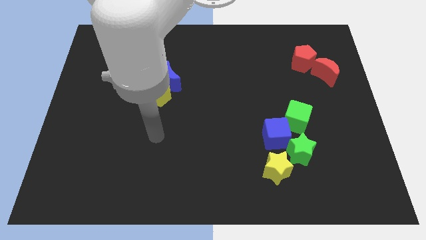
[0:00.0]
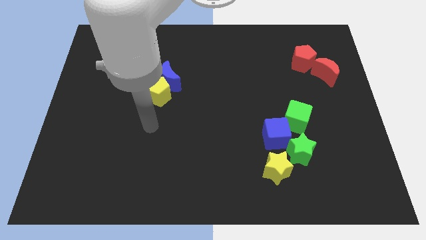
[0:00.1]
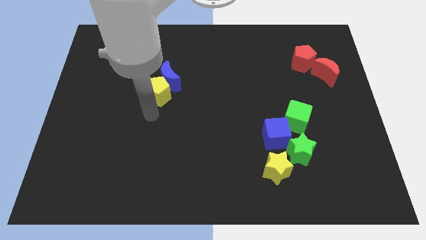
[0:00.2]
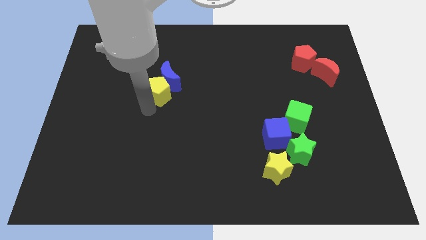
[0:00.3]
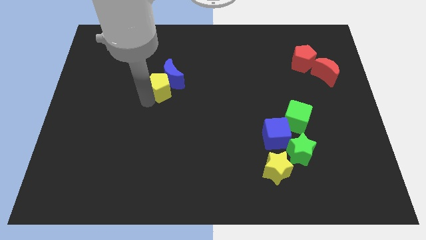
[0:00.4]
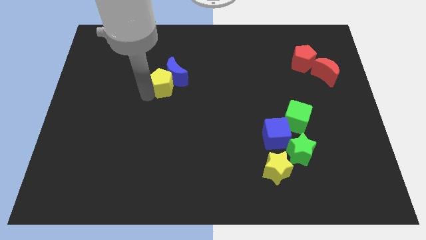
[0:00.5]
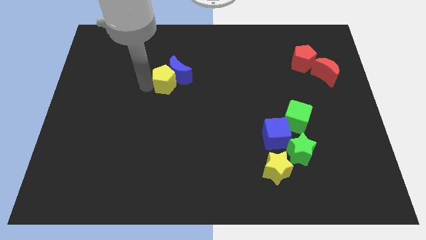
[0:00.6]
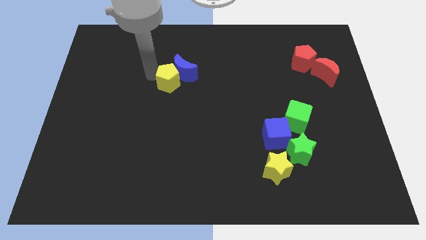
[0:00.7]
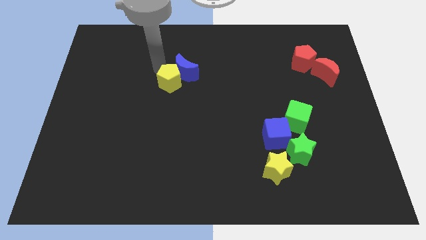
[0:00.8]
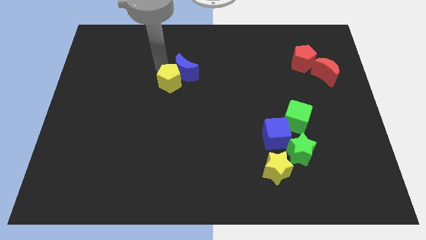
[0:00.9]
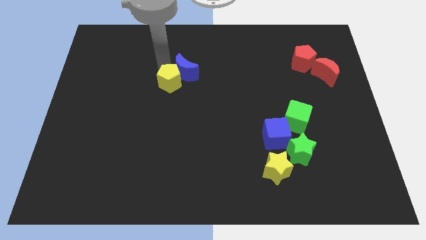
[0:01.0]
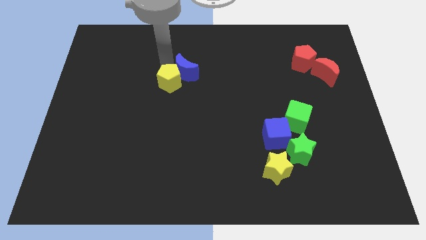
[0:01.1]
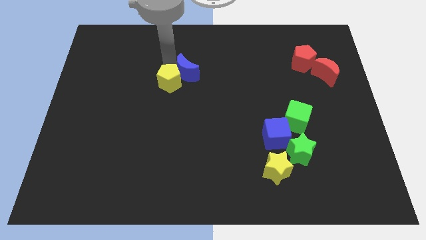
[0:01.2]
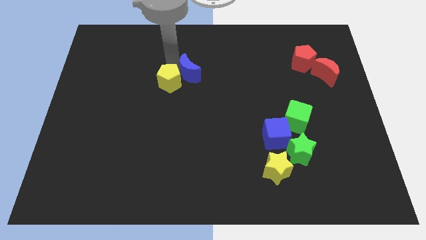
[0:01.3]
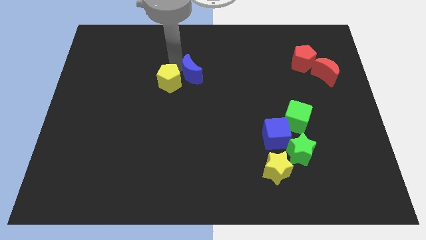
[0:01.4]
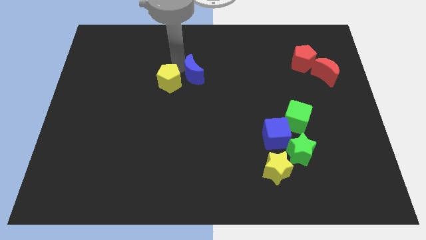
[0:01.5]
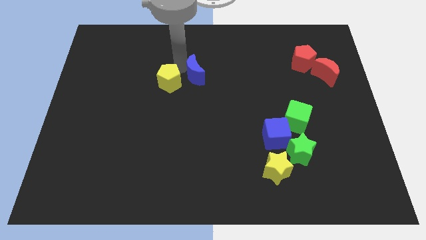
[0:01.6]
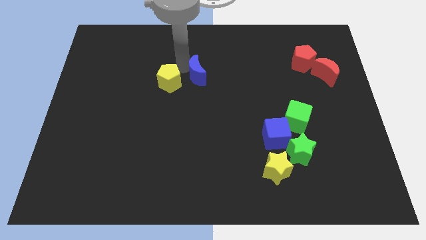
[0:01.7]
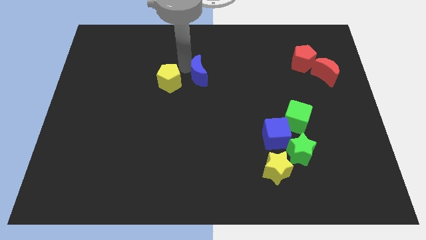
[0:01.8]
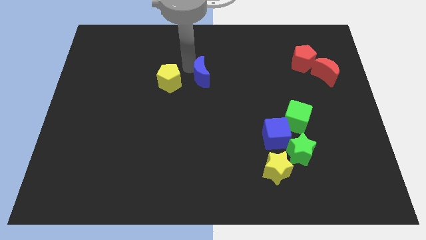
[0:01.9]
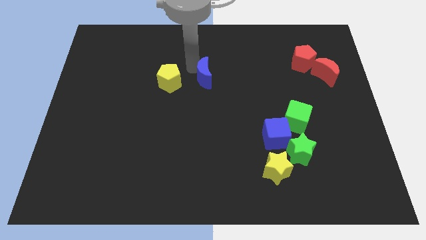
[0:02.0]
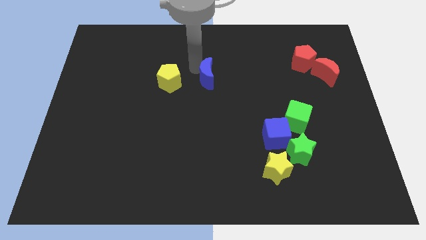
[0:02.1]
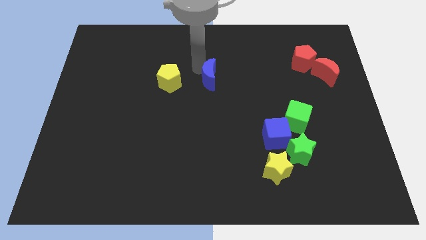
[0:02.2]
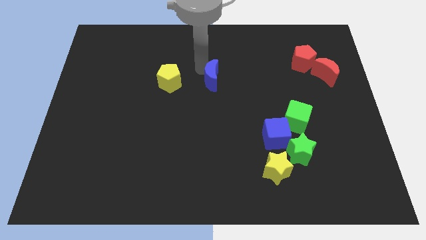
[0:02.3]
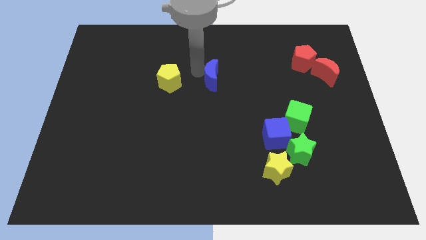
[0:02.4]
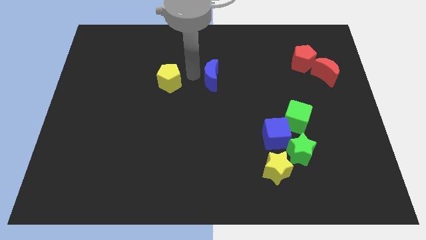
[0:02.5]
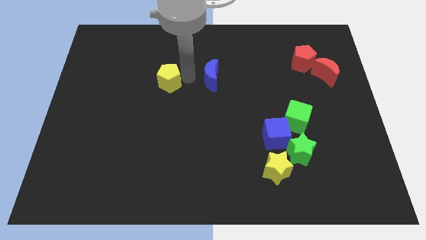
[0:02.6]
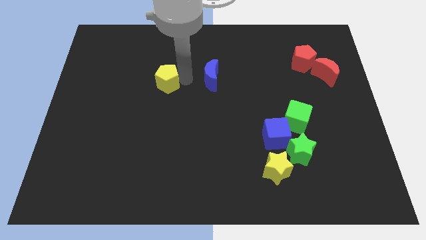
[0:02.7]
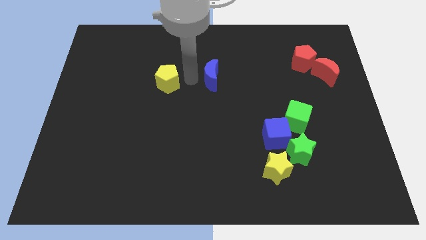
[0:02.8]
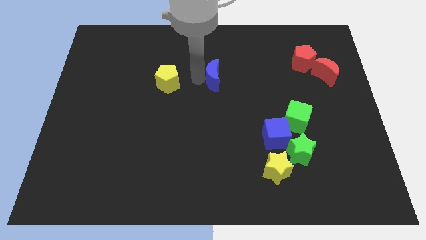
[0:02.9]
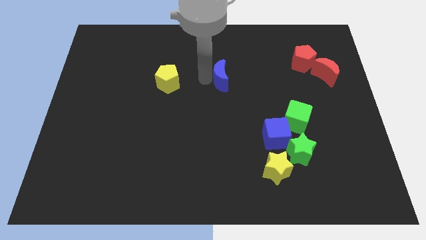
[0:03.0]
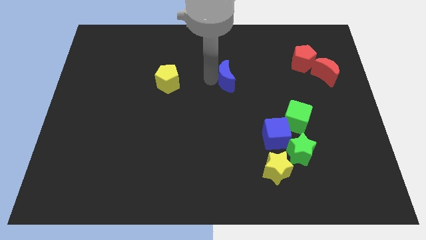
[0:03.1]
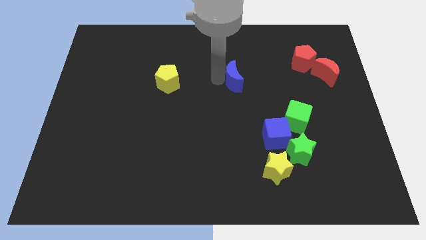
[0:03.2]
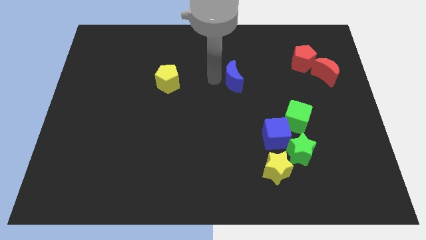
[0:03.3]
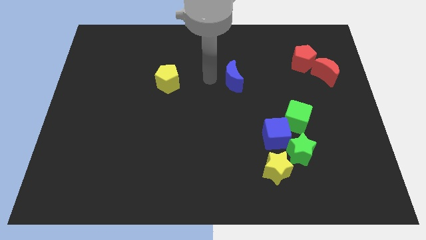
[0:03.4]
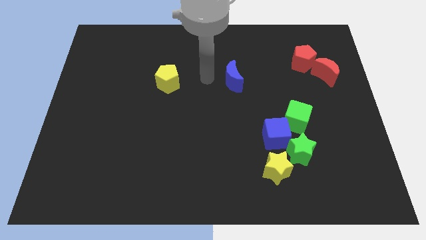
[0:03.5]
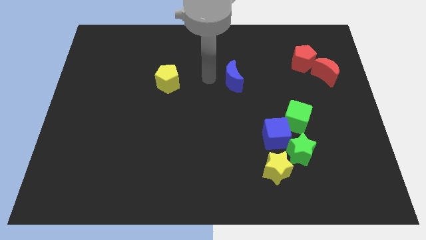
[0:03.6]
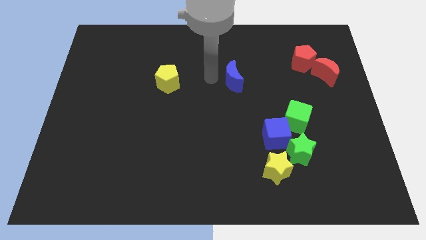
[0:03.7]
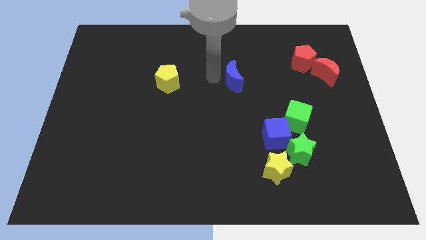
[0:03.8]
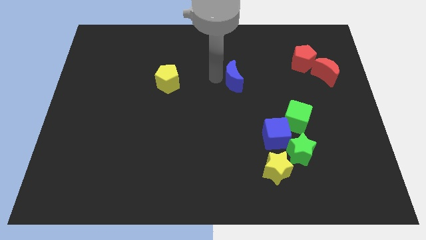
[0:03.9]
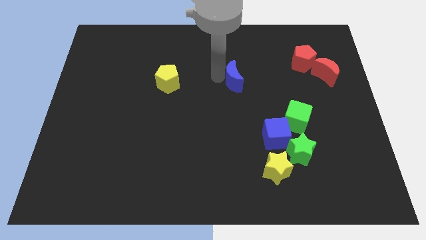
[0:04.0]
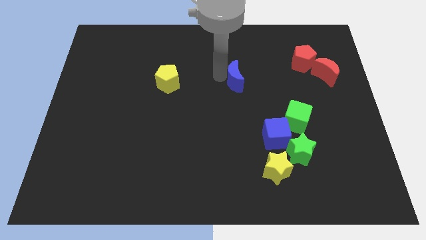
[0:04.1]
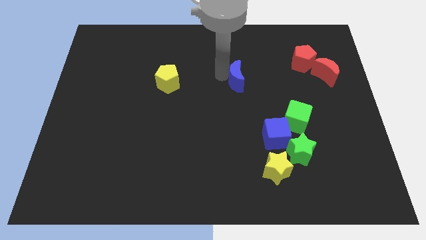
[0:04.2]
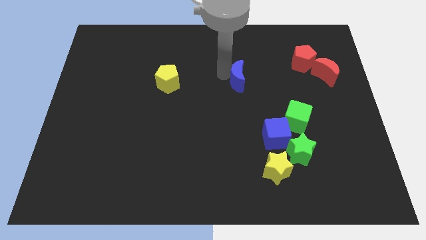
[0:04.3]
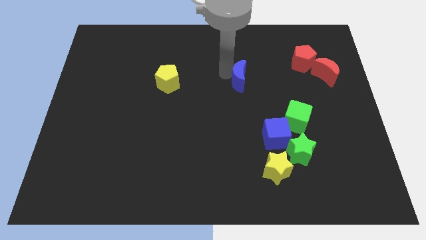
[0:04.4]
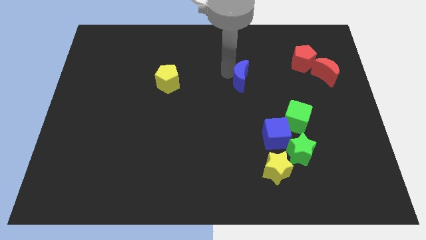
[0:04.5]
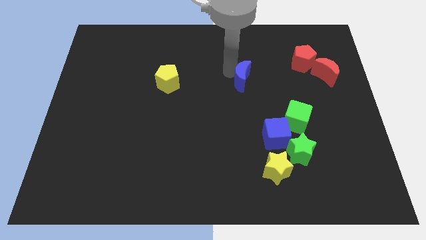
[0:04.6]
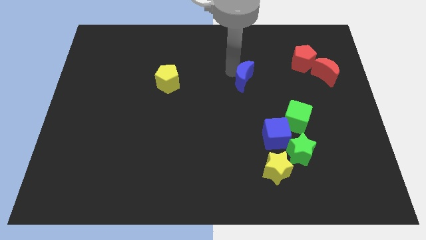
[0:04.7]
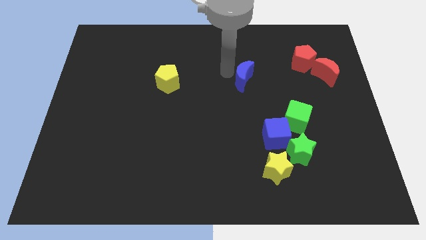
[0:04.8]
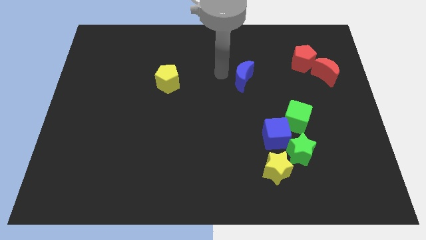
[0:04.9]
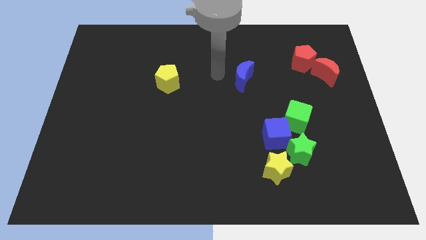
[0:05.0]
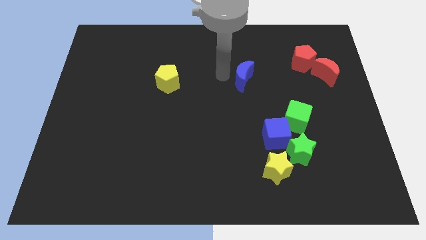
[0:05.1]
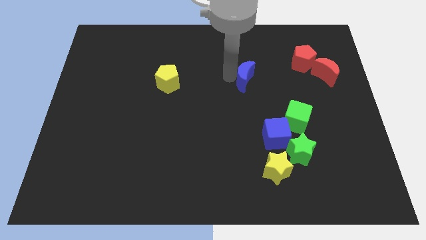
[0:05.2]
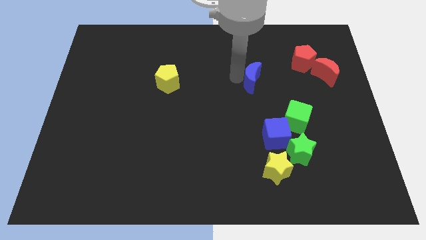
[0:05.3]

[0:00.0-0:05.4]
slide the blue moon to the right

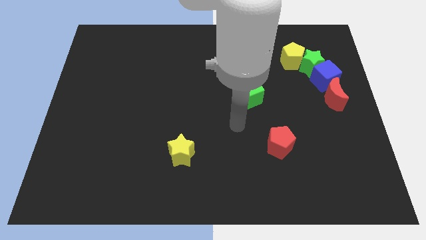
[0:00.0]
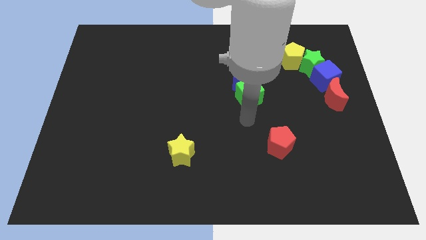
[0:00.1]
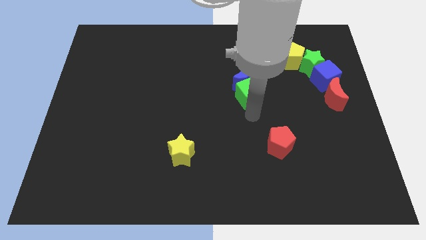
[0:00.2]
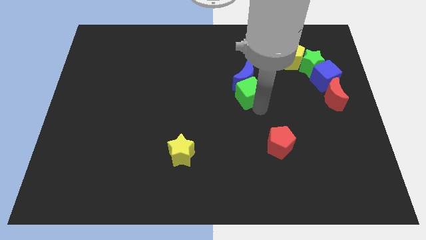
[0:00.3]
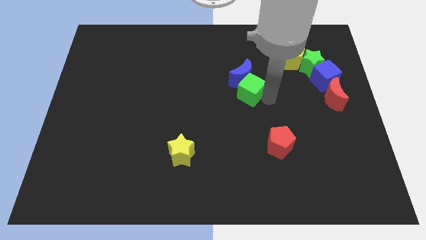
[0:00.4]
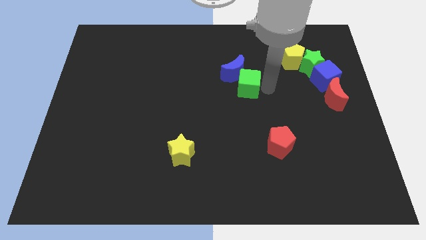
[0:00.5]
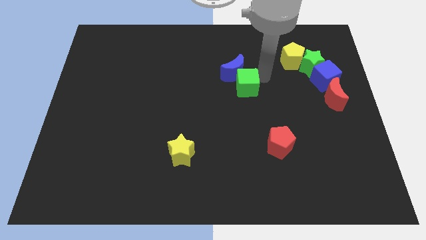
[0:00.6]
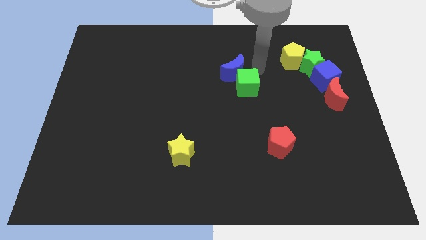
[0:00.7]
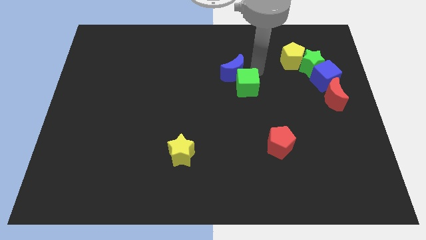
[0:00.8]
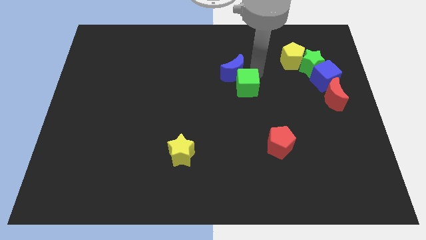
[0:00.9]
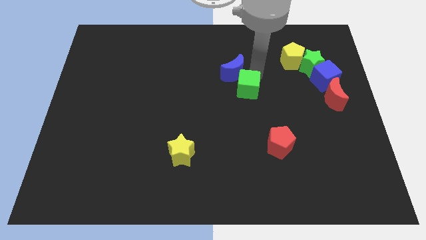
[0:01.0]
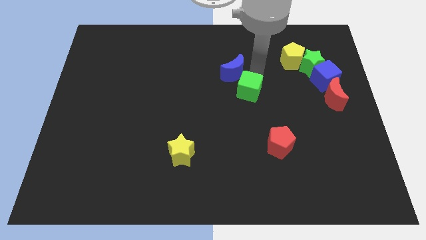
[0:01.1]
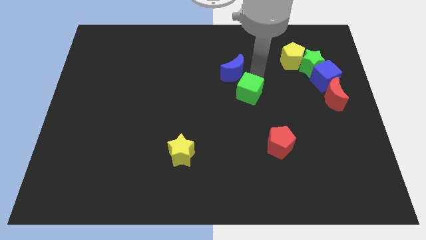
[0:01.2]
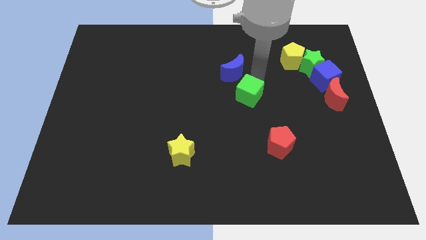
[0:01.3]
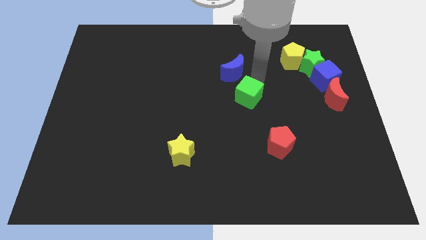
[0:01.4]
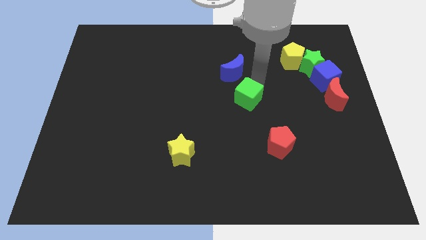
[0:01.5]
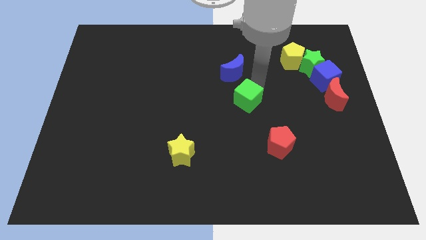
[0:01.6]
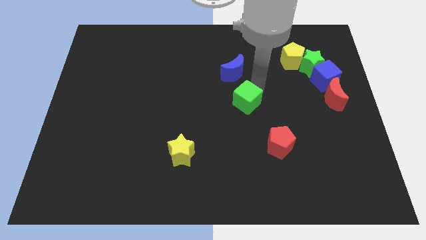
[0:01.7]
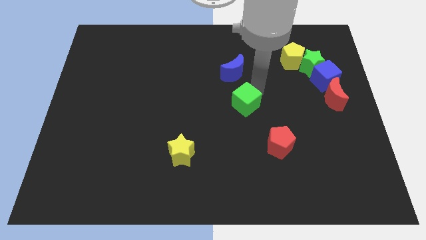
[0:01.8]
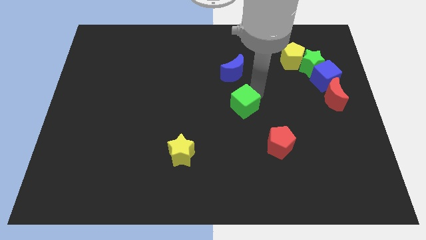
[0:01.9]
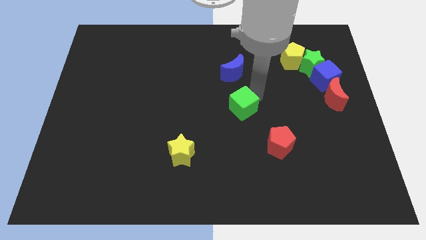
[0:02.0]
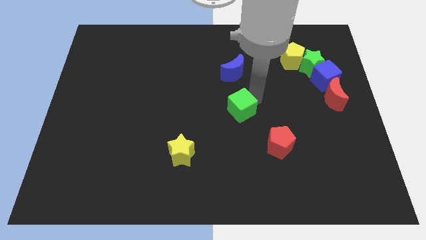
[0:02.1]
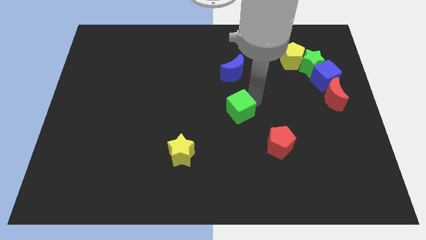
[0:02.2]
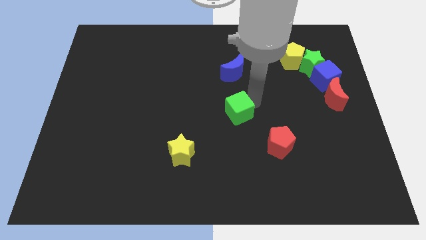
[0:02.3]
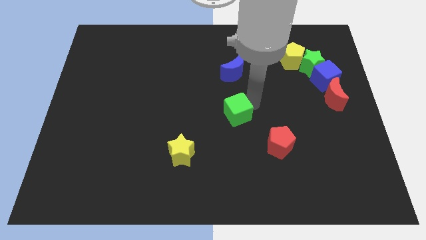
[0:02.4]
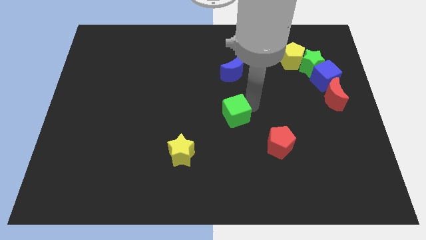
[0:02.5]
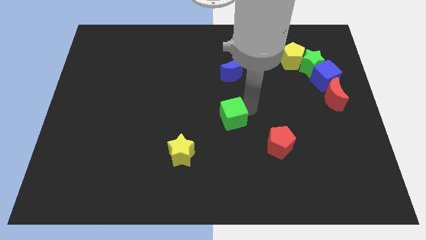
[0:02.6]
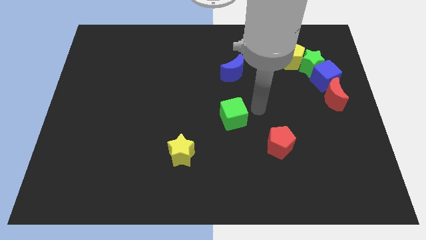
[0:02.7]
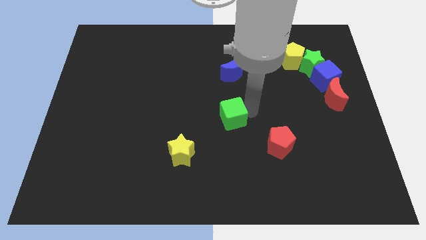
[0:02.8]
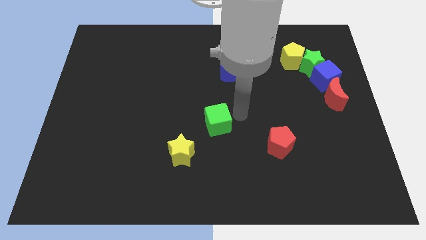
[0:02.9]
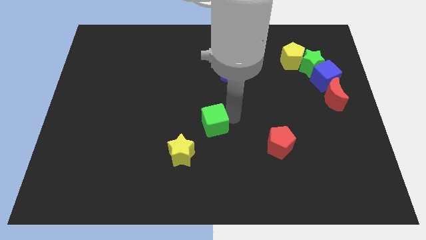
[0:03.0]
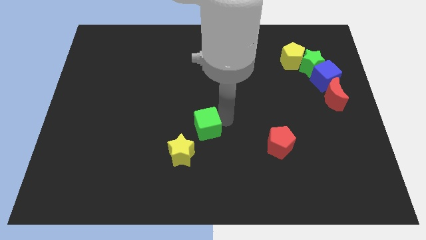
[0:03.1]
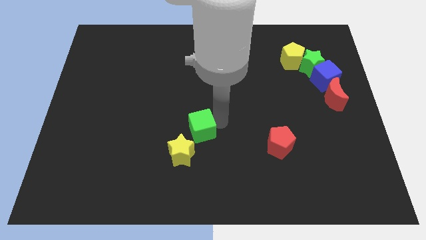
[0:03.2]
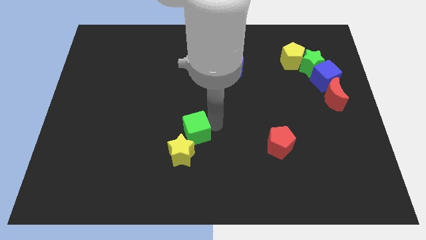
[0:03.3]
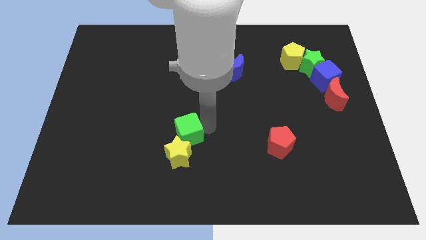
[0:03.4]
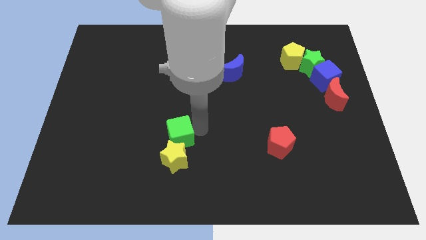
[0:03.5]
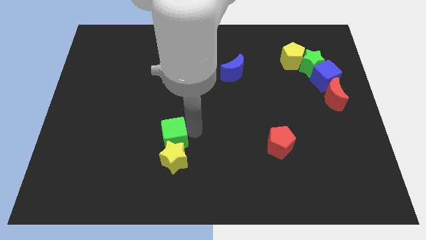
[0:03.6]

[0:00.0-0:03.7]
slide the green cube down and left
